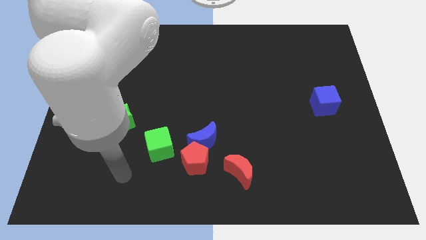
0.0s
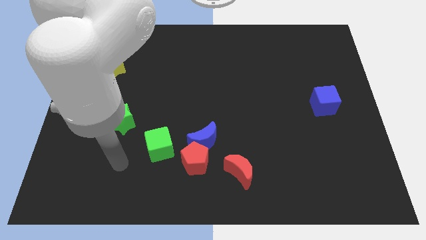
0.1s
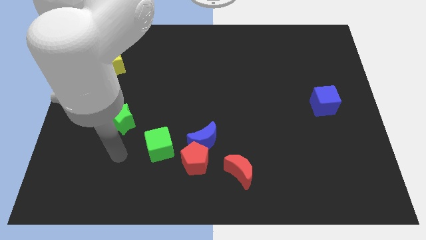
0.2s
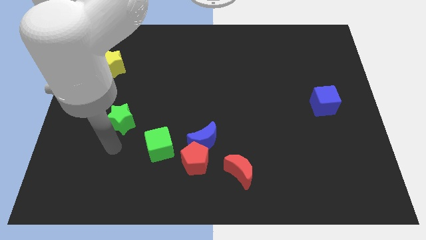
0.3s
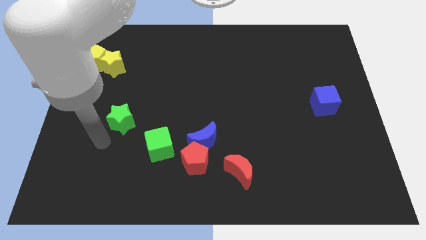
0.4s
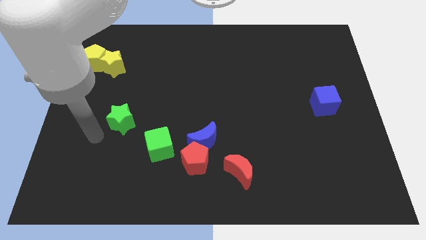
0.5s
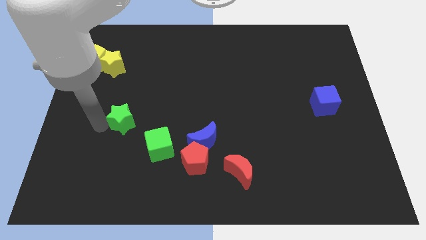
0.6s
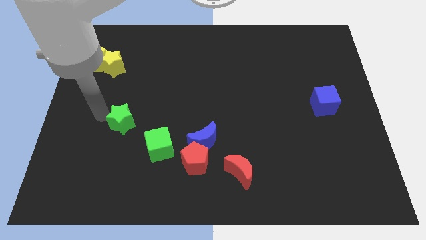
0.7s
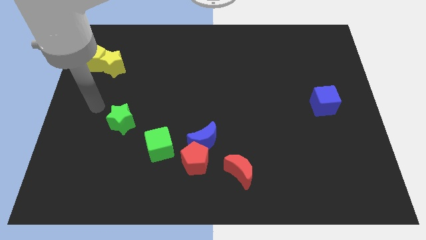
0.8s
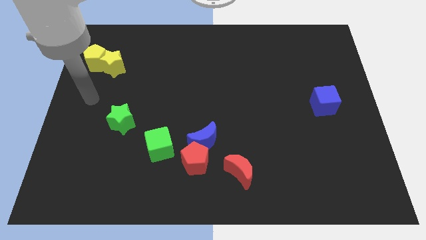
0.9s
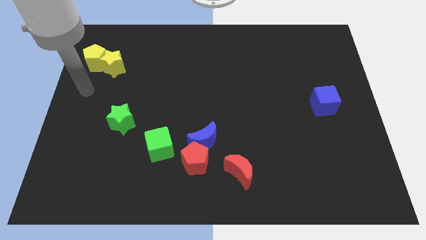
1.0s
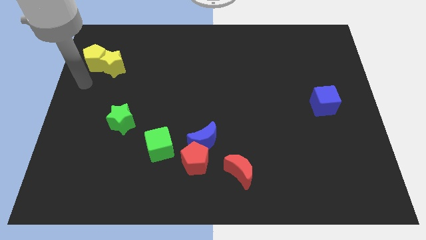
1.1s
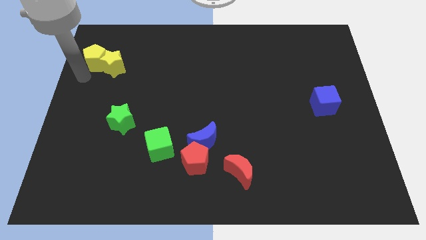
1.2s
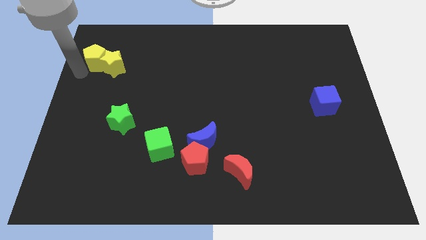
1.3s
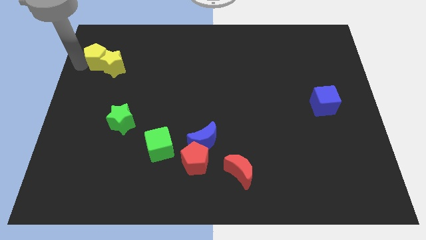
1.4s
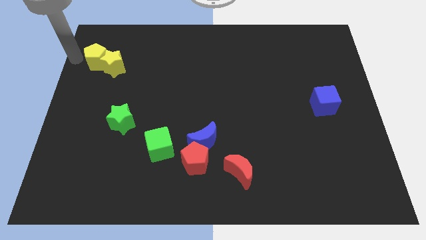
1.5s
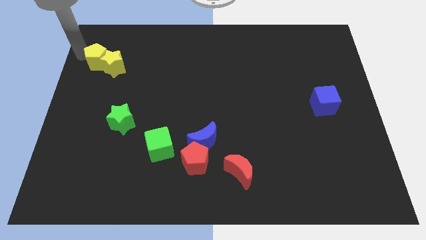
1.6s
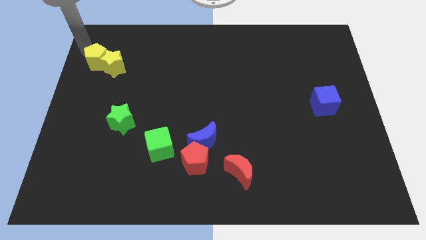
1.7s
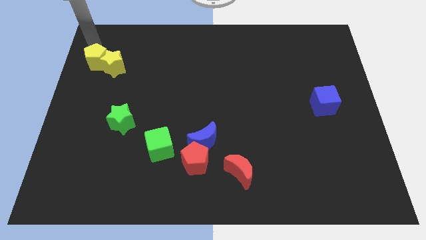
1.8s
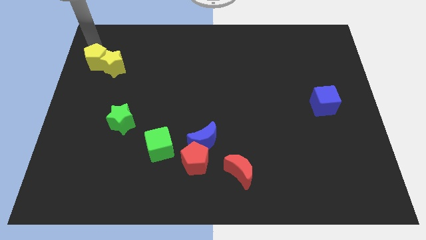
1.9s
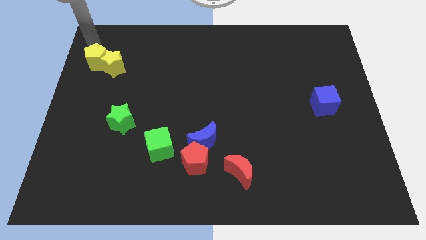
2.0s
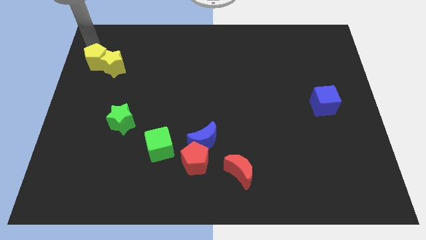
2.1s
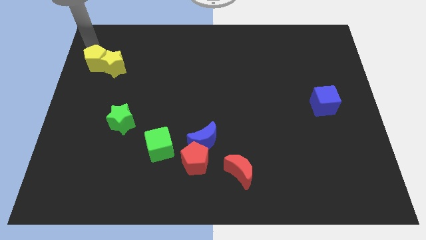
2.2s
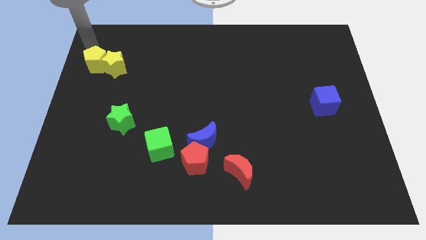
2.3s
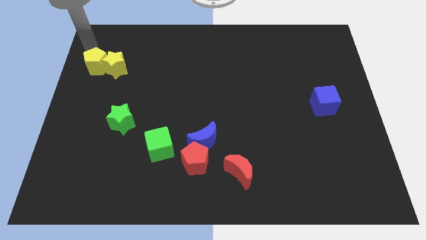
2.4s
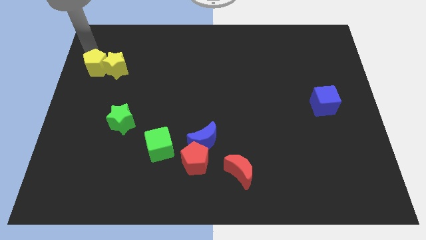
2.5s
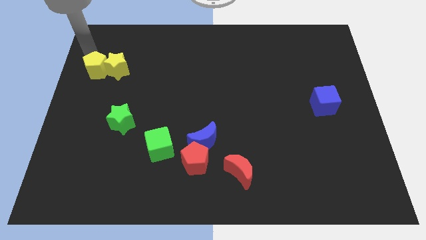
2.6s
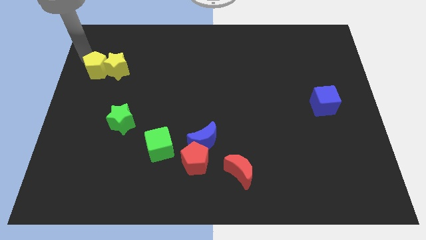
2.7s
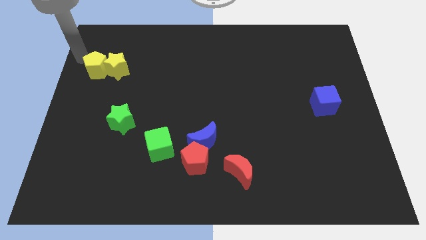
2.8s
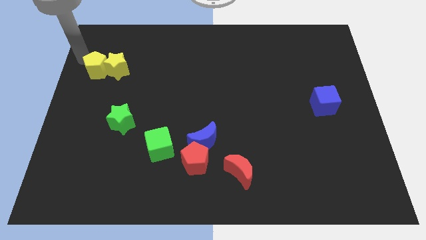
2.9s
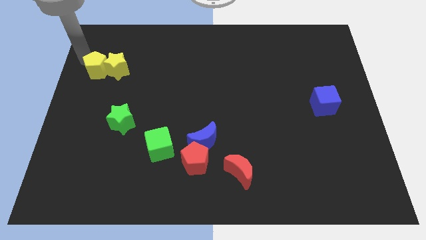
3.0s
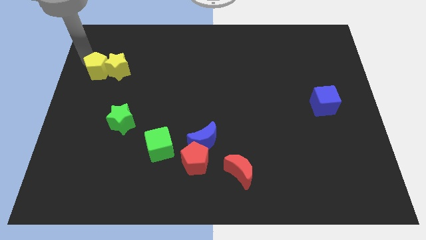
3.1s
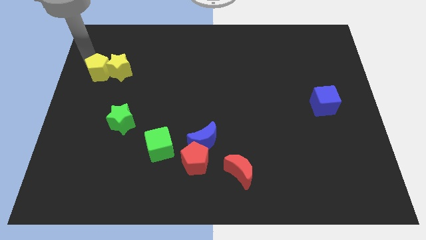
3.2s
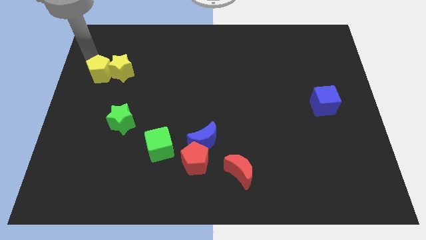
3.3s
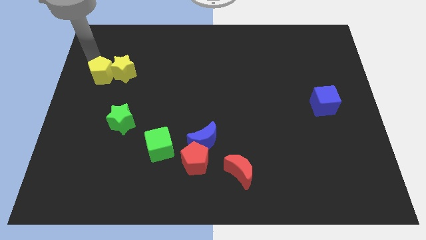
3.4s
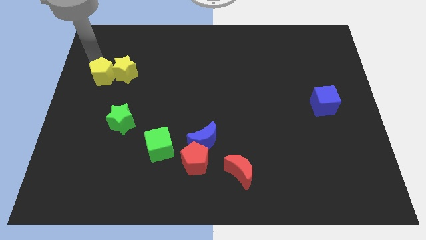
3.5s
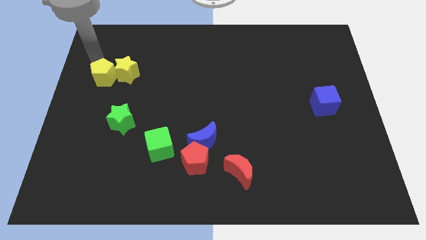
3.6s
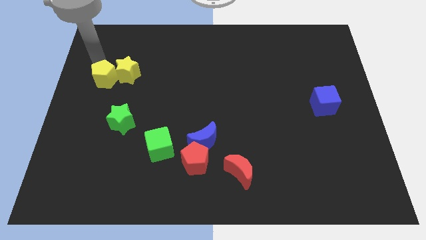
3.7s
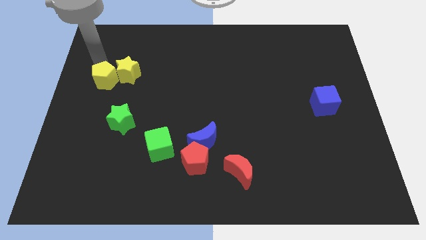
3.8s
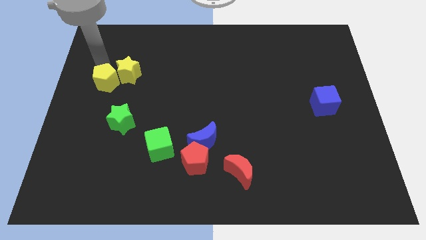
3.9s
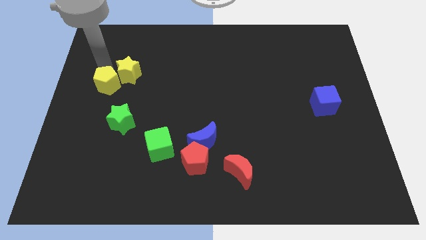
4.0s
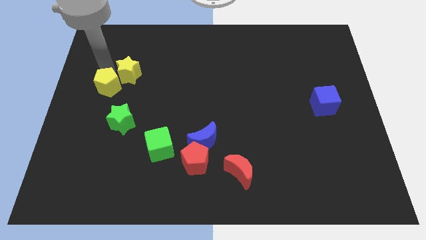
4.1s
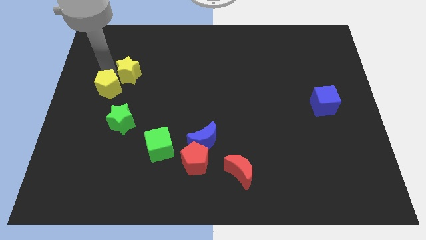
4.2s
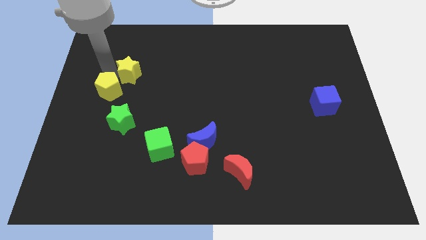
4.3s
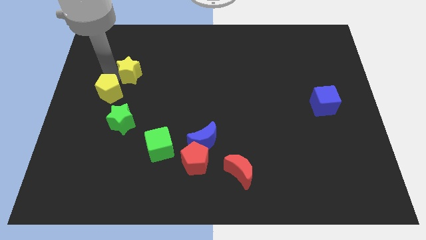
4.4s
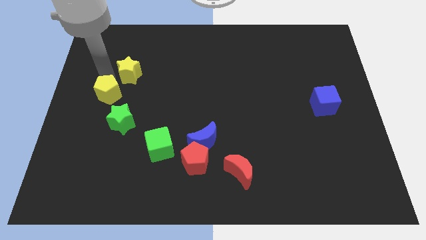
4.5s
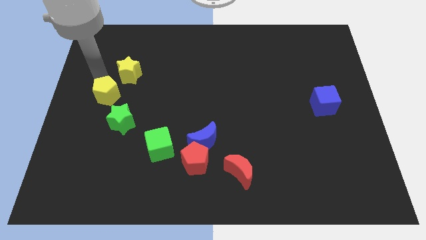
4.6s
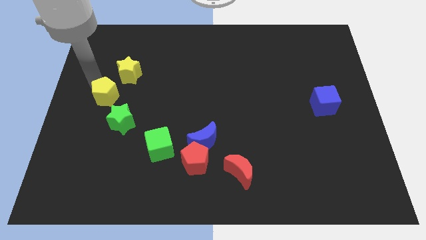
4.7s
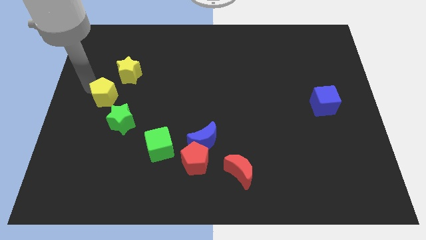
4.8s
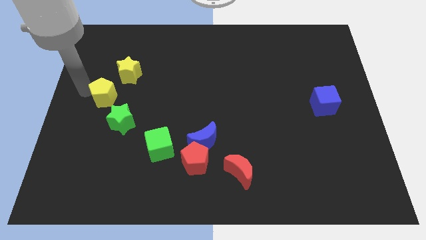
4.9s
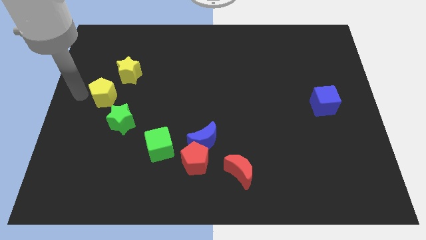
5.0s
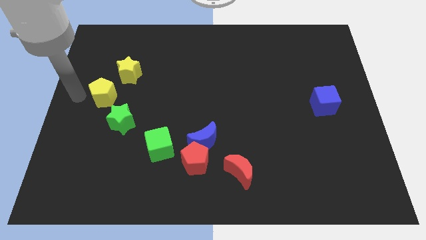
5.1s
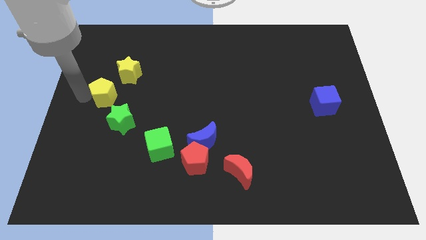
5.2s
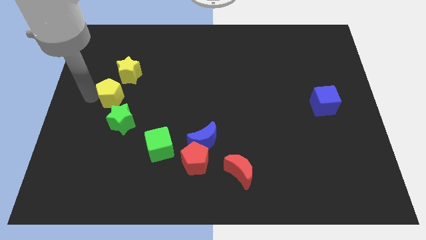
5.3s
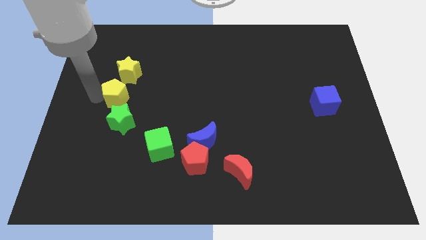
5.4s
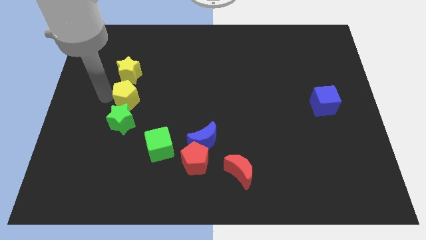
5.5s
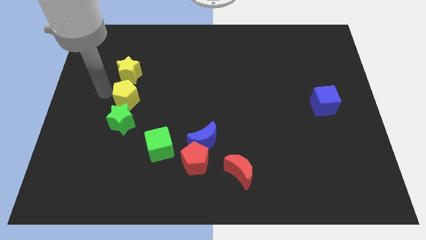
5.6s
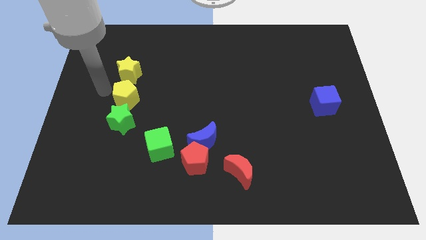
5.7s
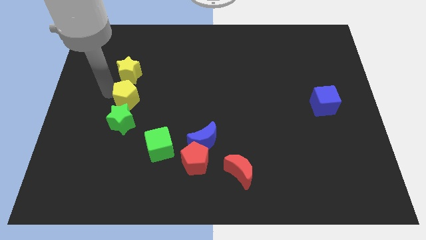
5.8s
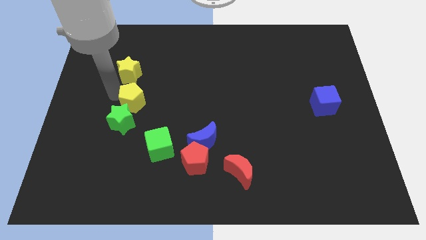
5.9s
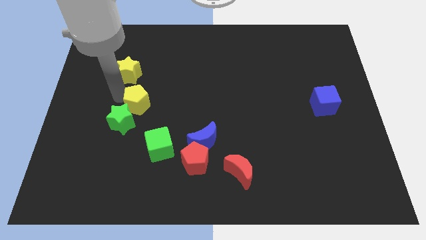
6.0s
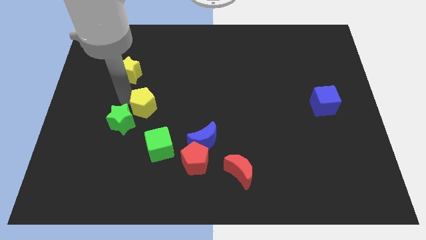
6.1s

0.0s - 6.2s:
move the yellow pentagon diagonally down and right

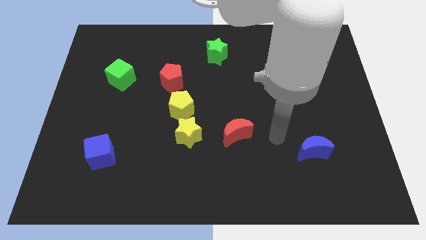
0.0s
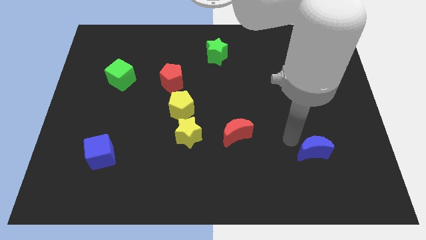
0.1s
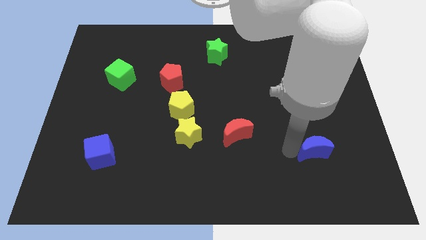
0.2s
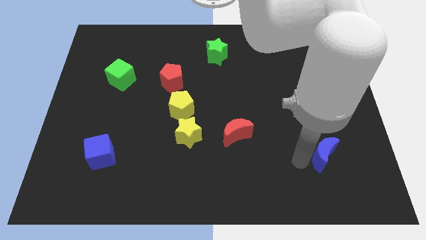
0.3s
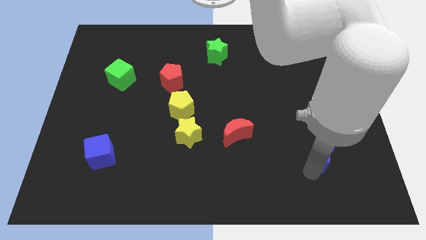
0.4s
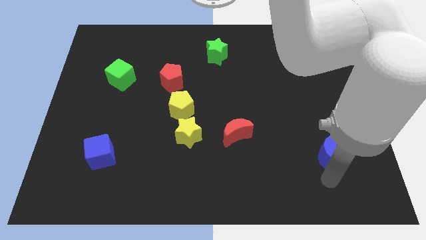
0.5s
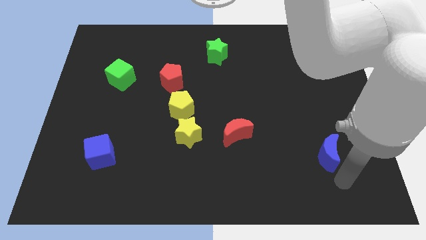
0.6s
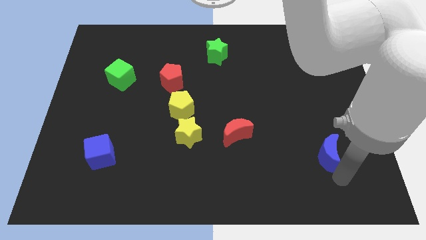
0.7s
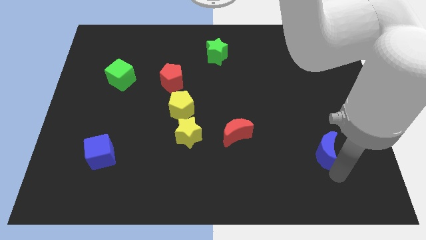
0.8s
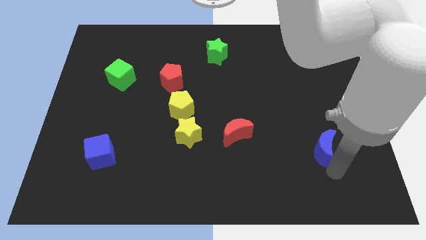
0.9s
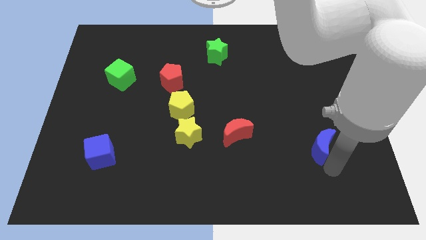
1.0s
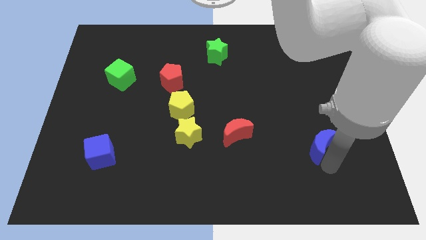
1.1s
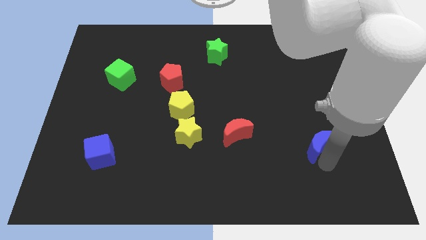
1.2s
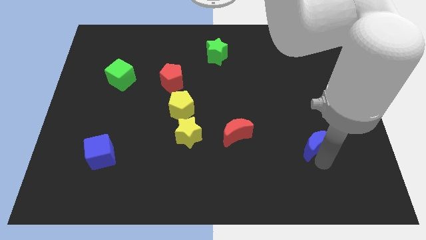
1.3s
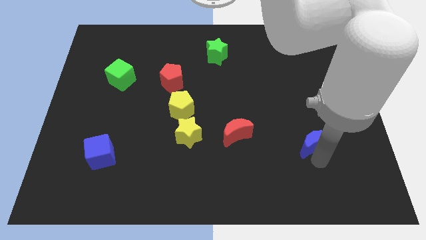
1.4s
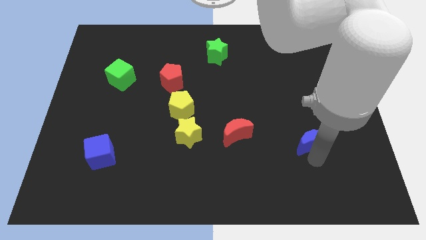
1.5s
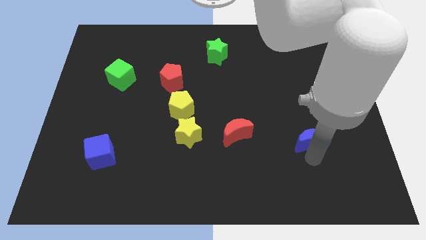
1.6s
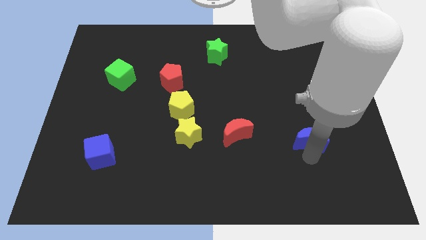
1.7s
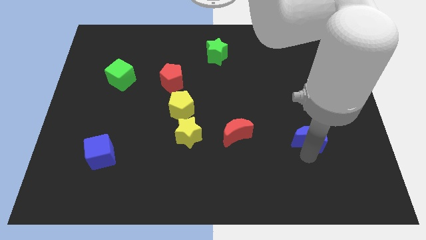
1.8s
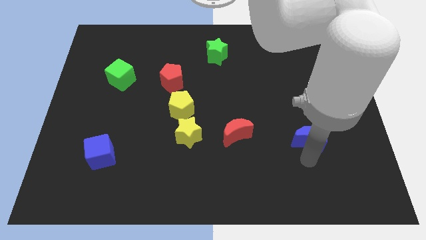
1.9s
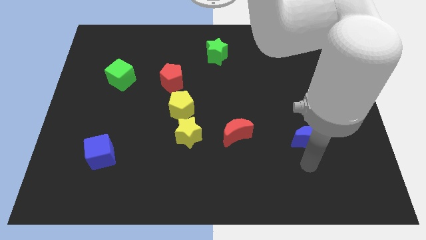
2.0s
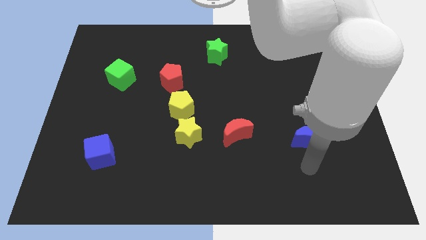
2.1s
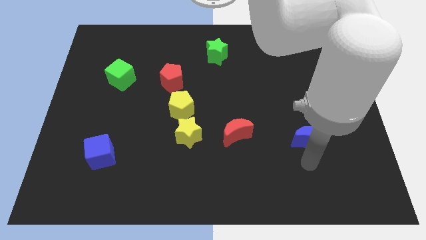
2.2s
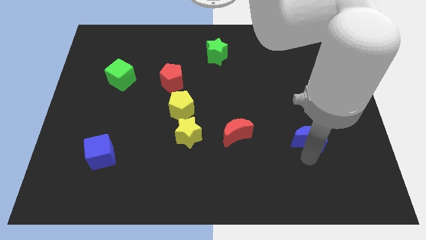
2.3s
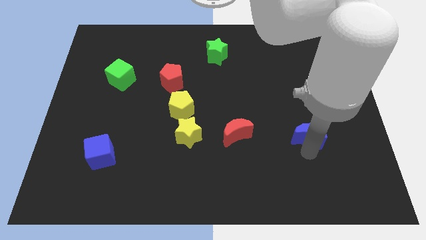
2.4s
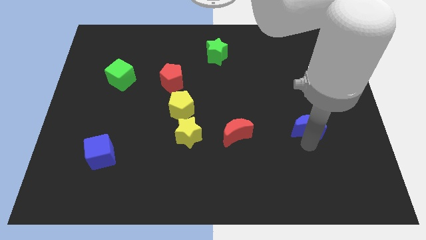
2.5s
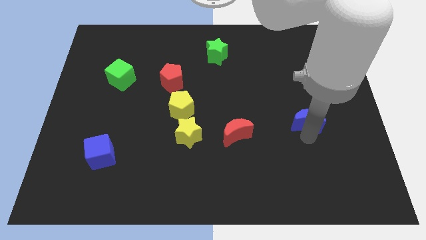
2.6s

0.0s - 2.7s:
slightly slide the blue moon up
